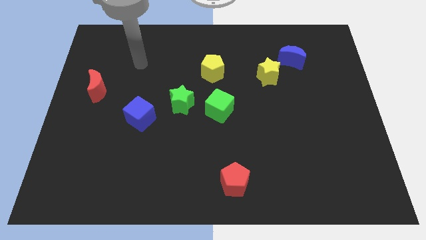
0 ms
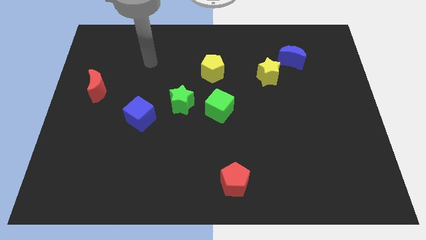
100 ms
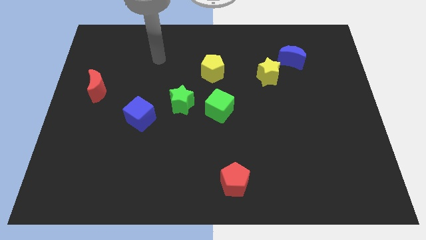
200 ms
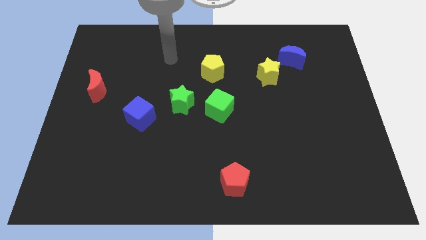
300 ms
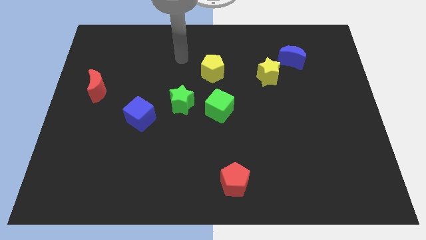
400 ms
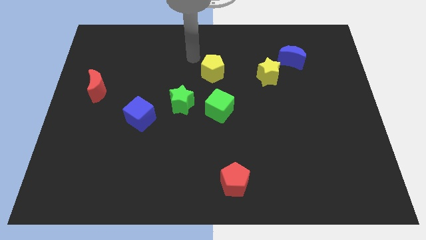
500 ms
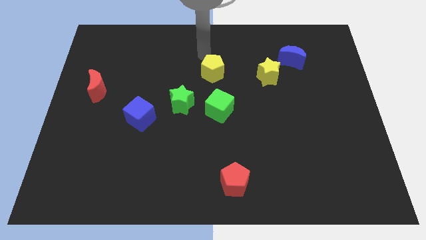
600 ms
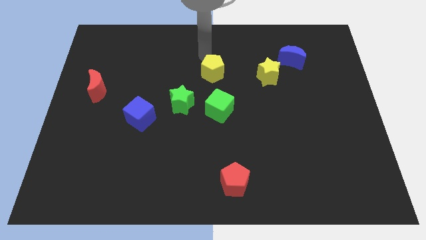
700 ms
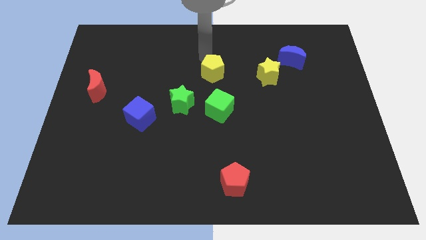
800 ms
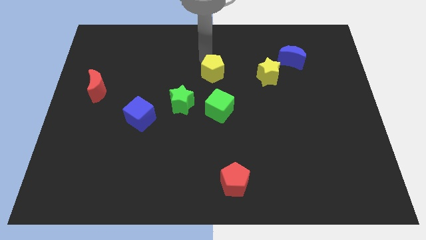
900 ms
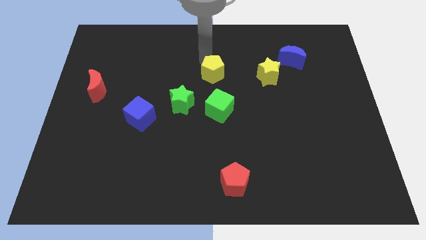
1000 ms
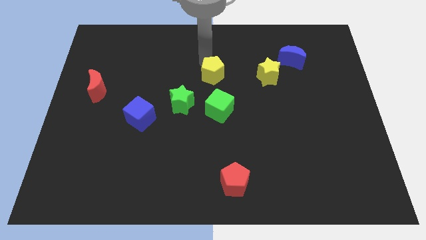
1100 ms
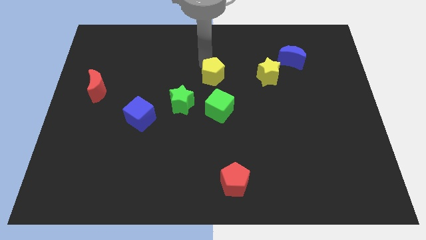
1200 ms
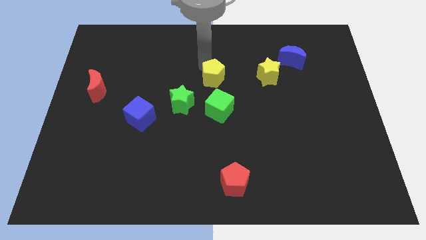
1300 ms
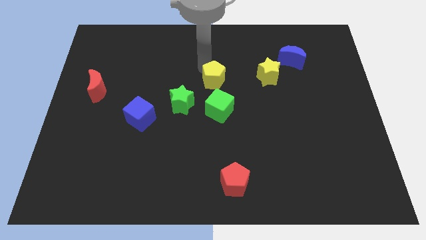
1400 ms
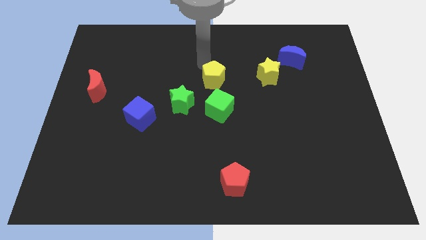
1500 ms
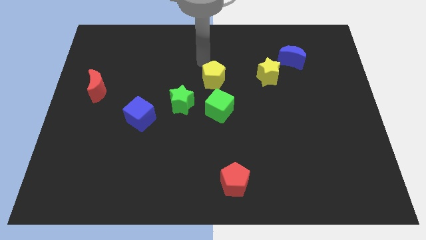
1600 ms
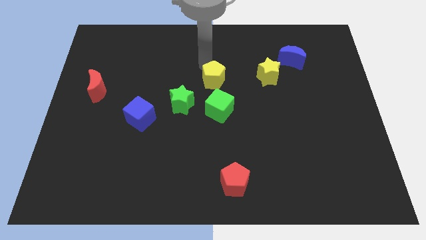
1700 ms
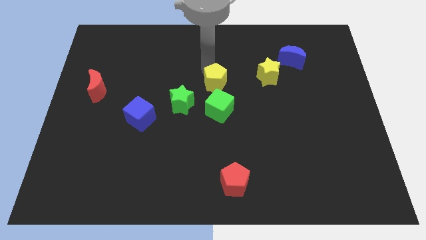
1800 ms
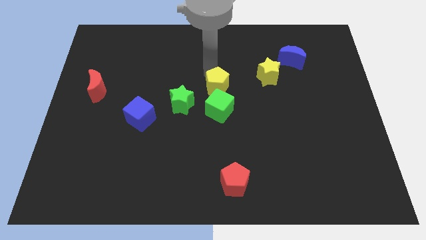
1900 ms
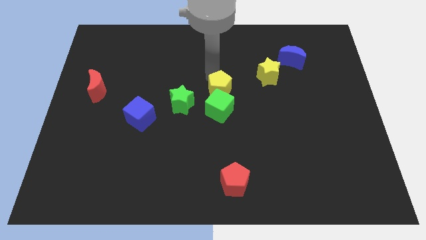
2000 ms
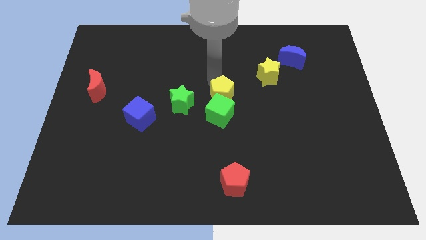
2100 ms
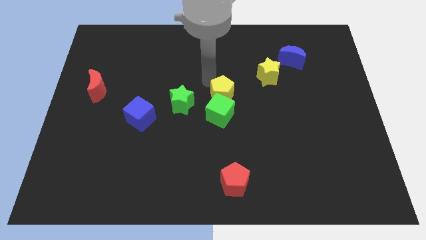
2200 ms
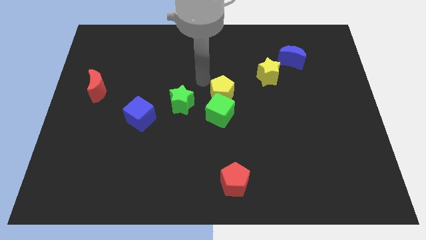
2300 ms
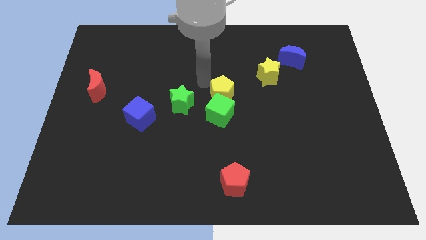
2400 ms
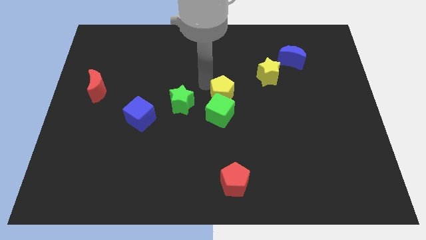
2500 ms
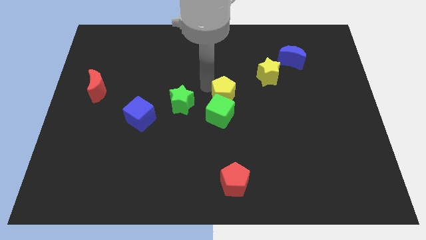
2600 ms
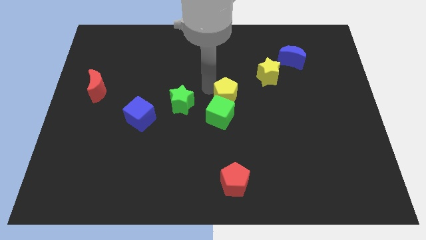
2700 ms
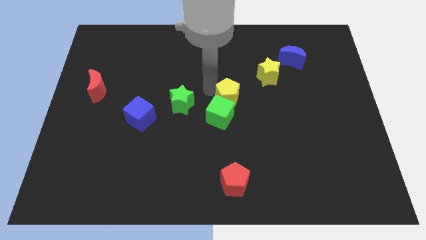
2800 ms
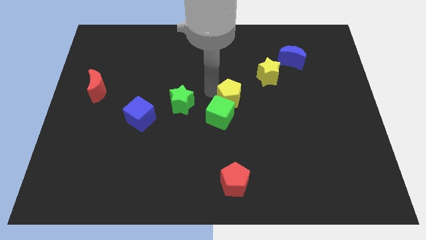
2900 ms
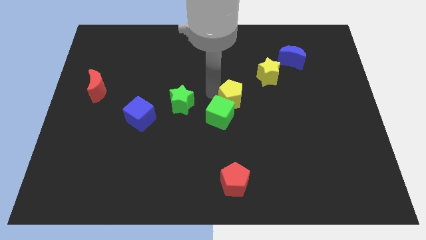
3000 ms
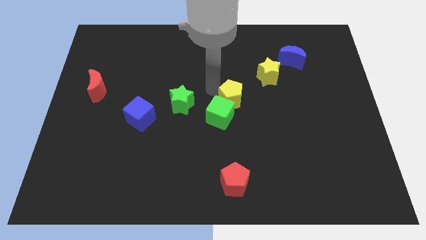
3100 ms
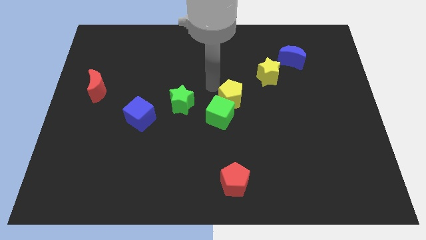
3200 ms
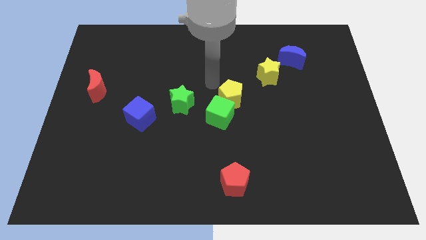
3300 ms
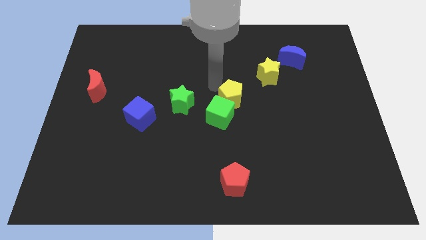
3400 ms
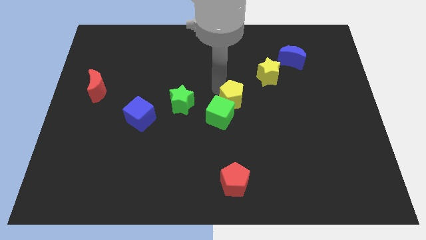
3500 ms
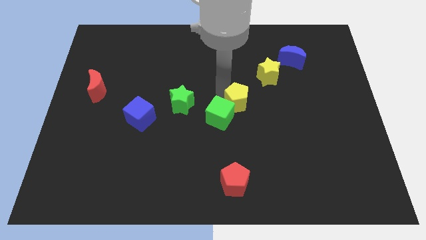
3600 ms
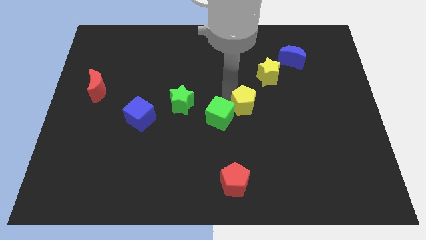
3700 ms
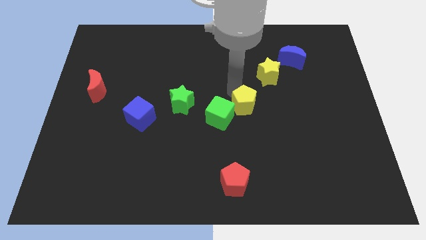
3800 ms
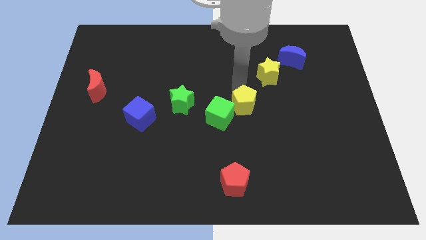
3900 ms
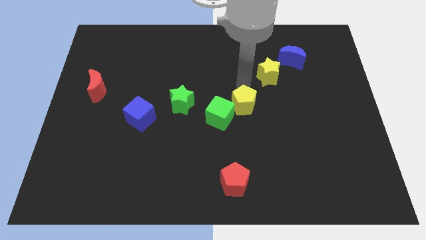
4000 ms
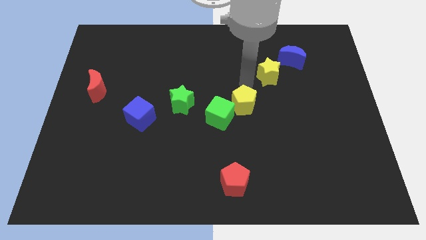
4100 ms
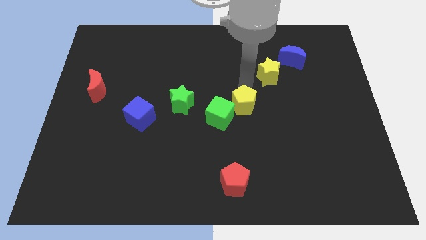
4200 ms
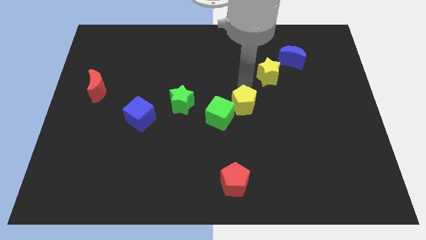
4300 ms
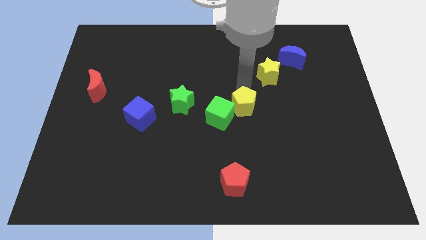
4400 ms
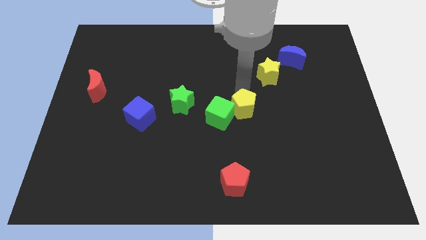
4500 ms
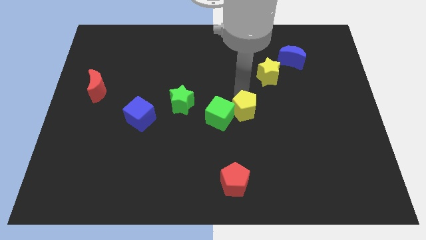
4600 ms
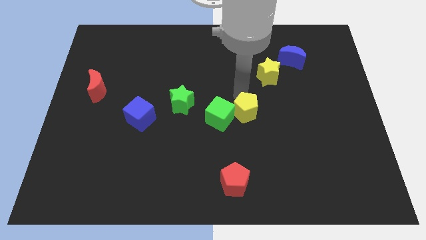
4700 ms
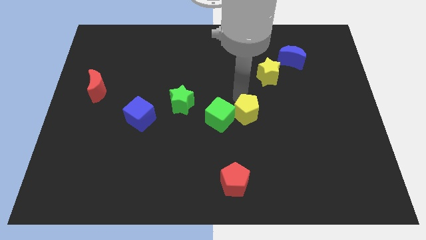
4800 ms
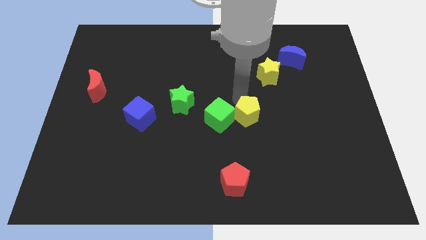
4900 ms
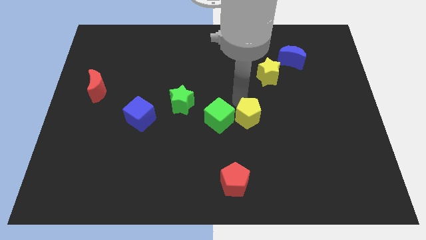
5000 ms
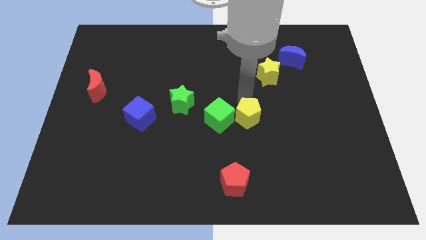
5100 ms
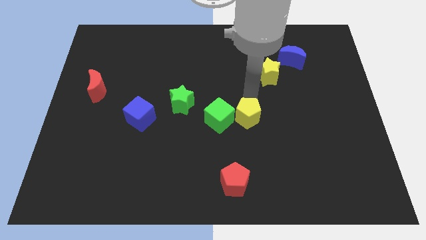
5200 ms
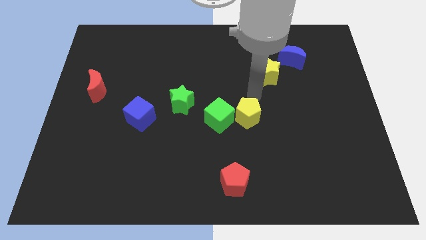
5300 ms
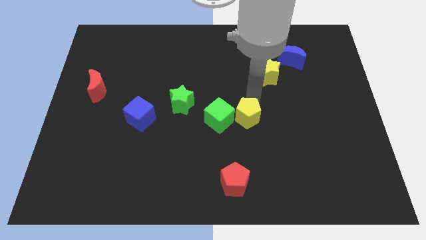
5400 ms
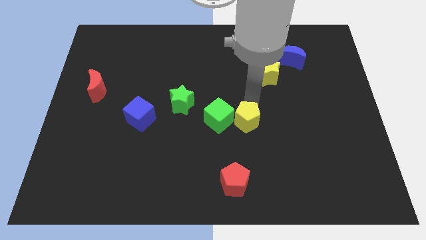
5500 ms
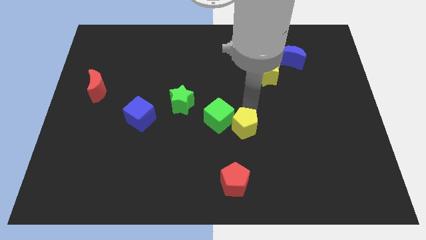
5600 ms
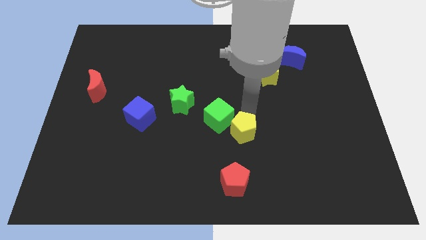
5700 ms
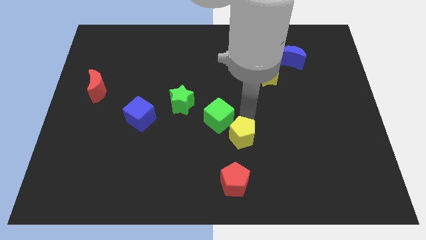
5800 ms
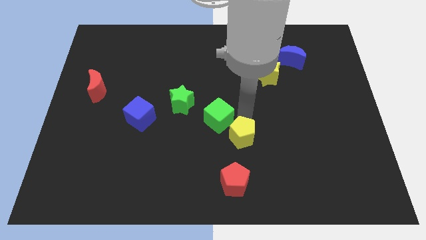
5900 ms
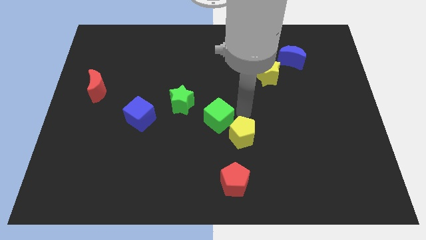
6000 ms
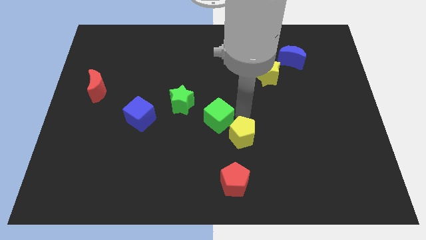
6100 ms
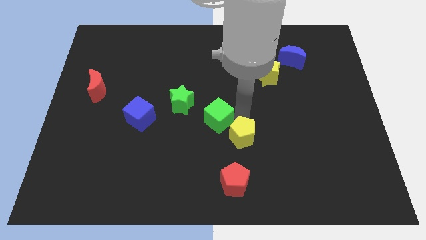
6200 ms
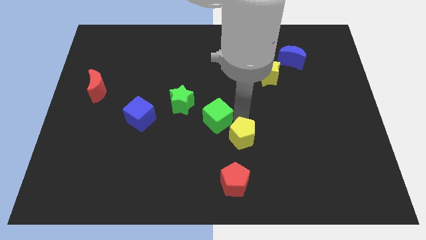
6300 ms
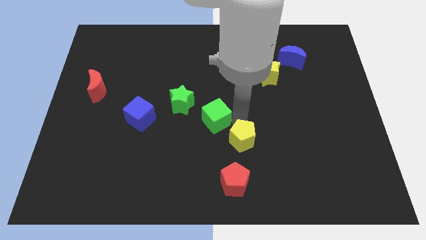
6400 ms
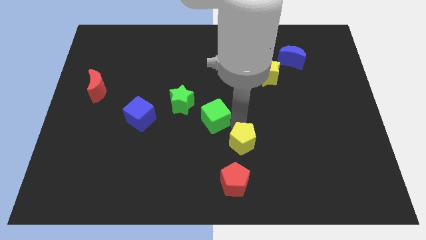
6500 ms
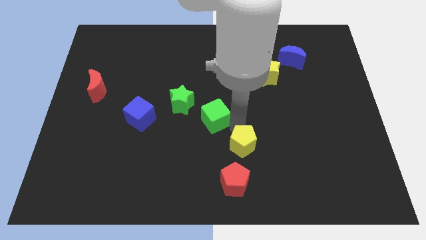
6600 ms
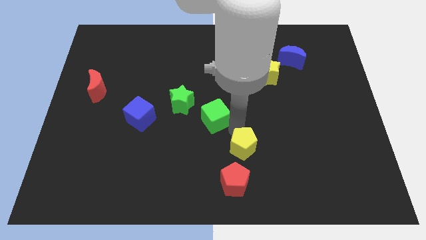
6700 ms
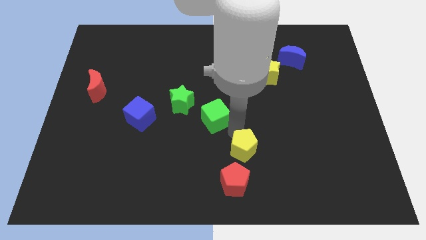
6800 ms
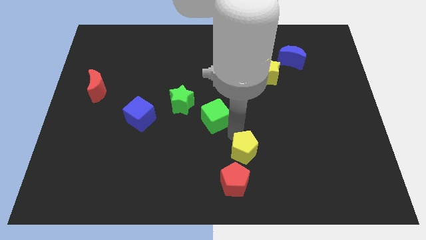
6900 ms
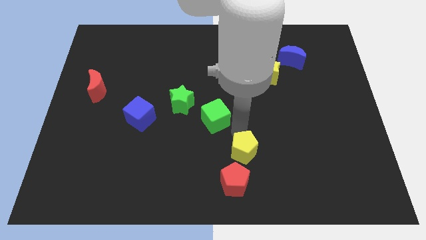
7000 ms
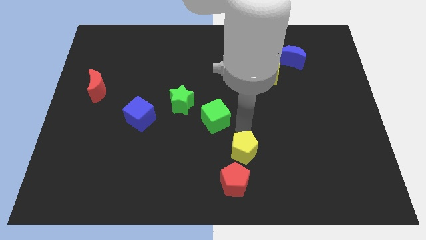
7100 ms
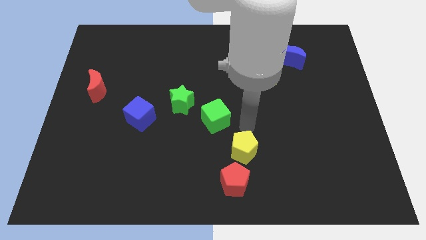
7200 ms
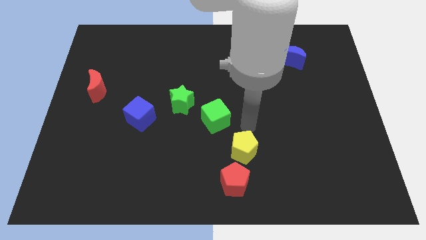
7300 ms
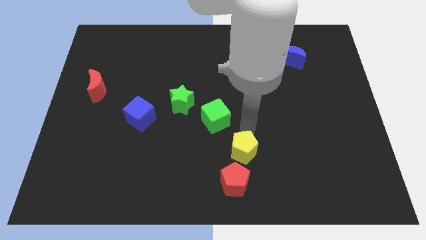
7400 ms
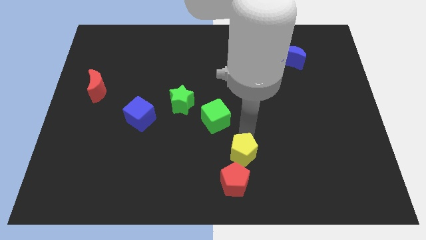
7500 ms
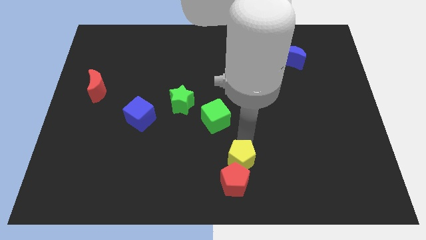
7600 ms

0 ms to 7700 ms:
put the yellow pentagon to the red pentagon
